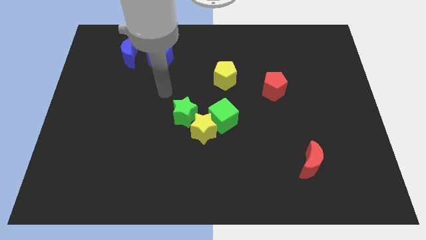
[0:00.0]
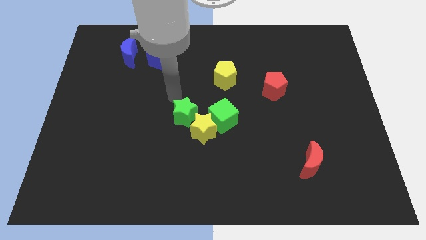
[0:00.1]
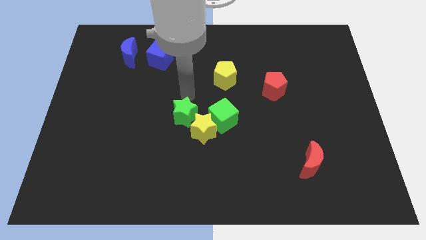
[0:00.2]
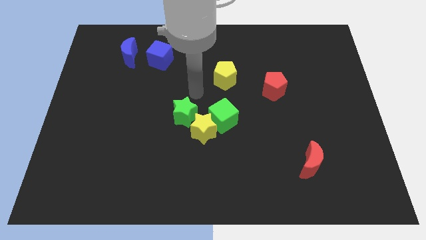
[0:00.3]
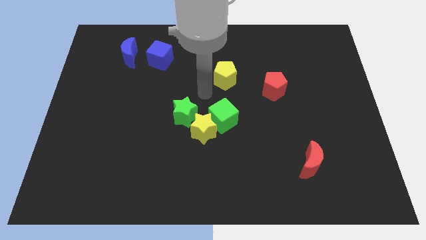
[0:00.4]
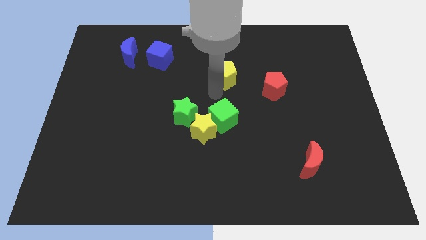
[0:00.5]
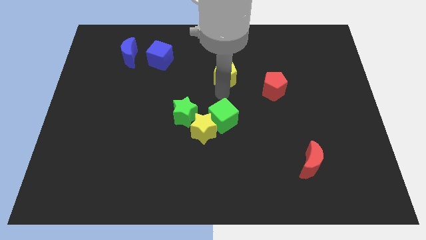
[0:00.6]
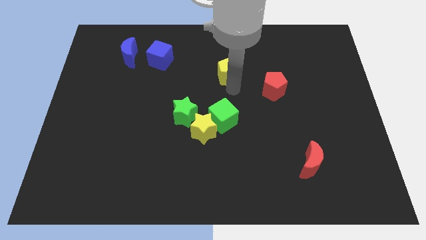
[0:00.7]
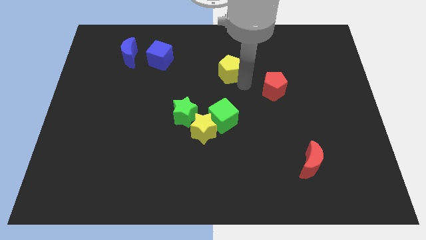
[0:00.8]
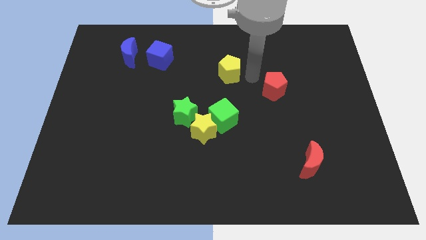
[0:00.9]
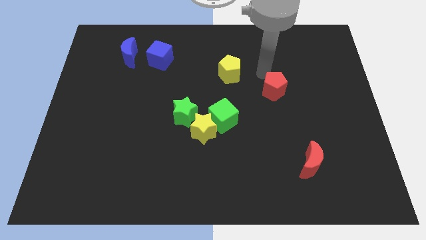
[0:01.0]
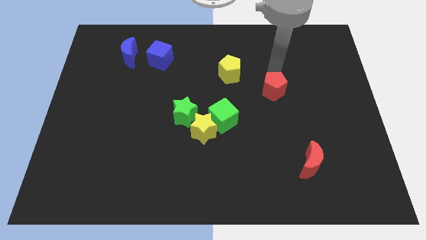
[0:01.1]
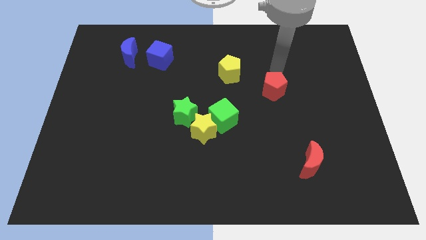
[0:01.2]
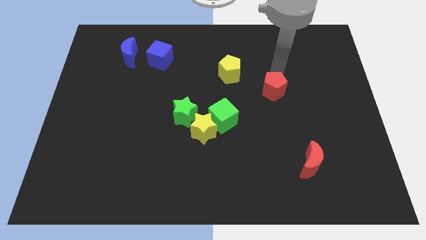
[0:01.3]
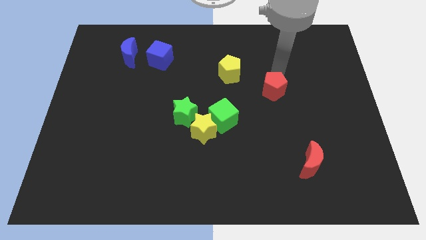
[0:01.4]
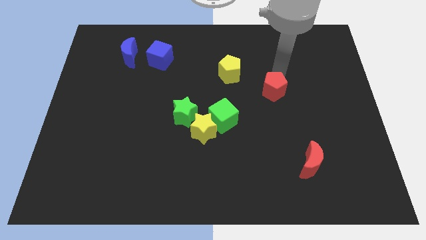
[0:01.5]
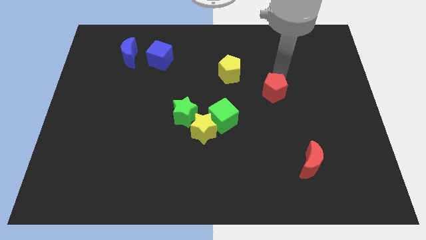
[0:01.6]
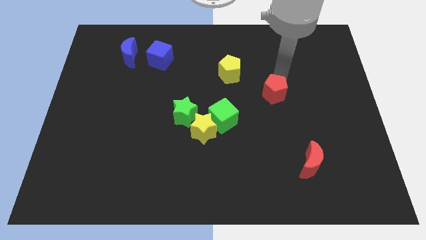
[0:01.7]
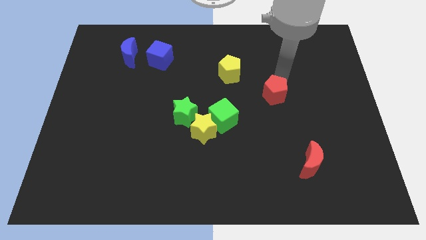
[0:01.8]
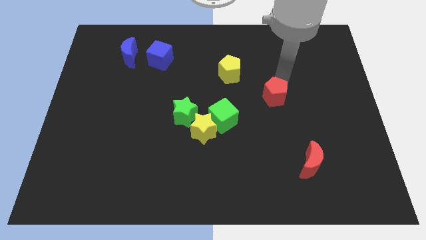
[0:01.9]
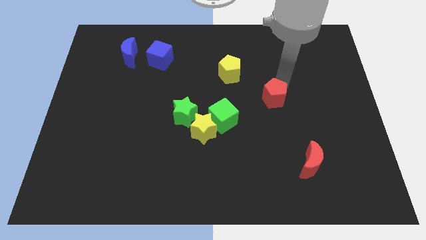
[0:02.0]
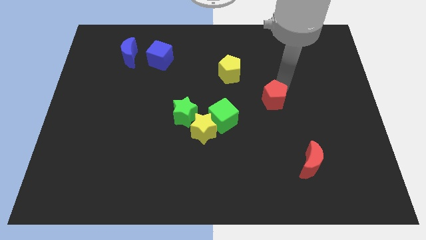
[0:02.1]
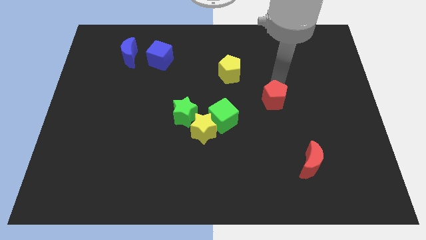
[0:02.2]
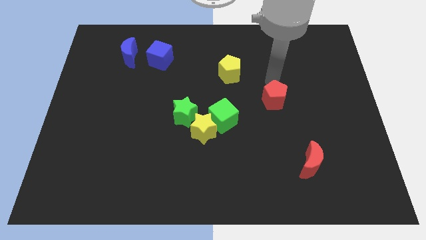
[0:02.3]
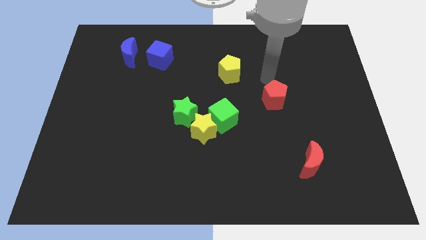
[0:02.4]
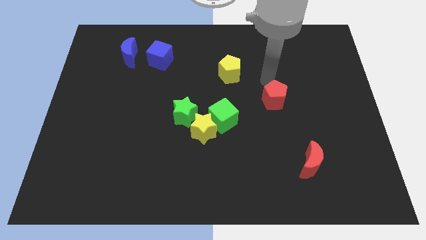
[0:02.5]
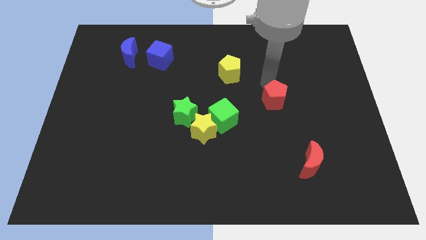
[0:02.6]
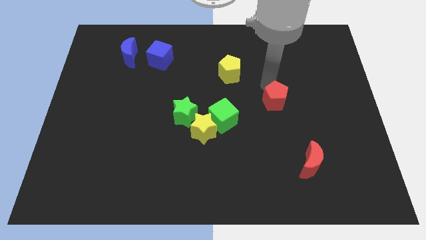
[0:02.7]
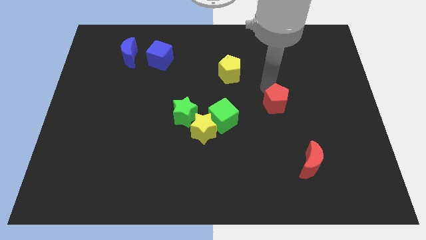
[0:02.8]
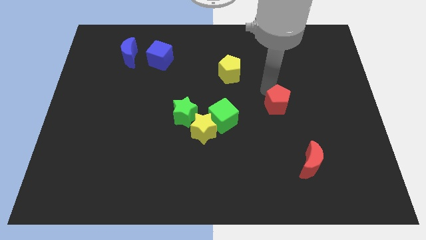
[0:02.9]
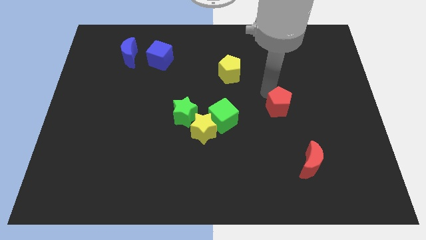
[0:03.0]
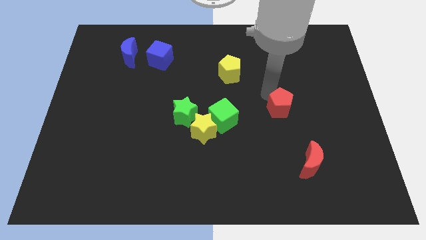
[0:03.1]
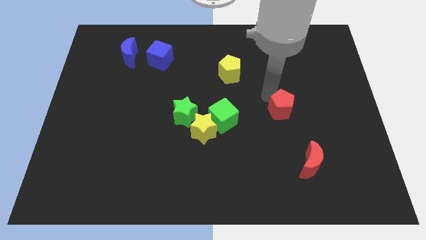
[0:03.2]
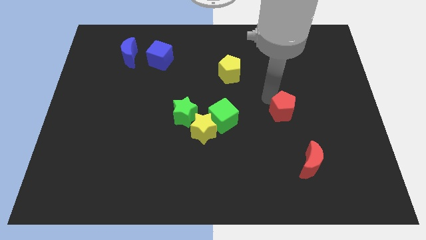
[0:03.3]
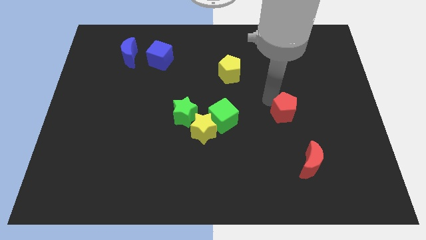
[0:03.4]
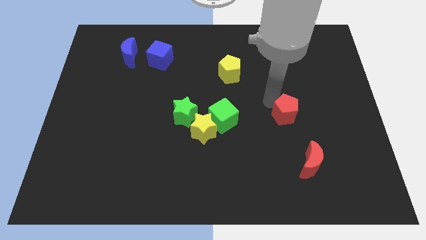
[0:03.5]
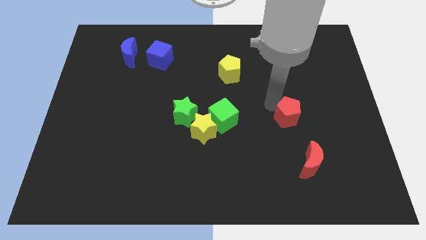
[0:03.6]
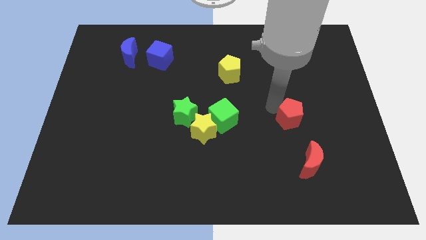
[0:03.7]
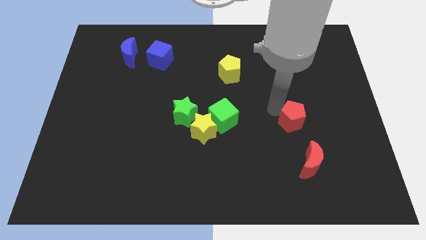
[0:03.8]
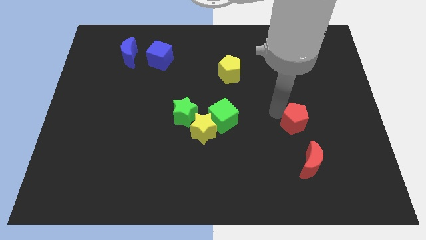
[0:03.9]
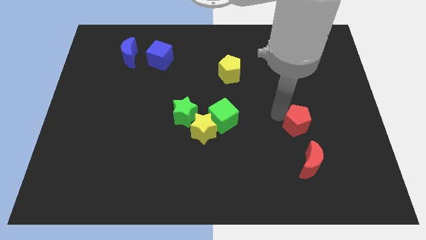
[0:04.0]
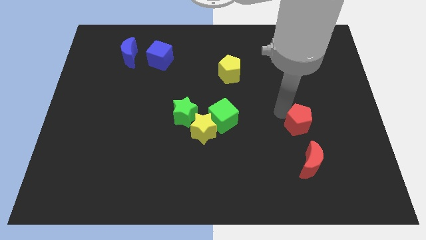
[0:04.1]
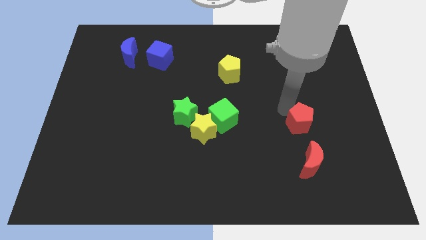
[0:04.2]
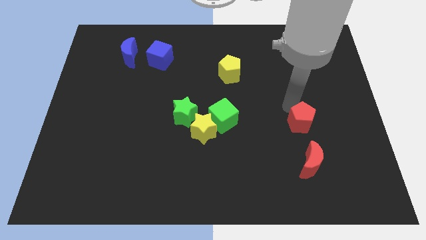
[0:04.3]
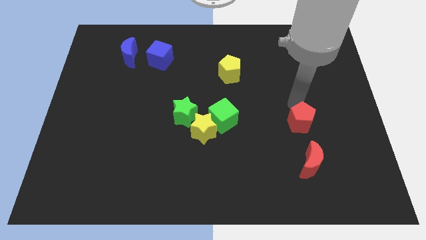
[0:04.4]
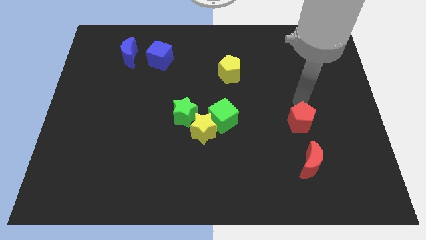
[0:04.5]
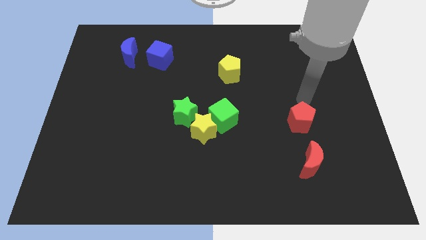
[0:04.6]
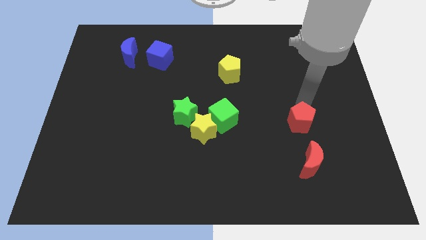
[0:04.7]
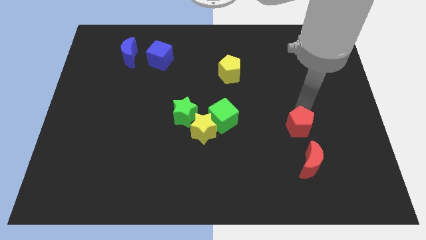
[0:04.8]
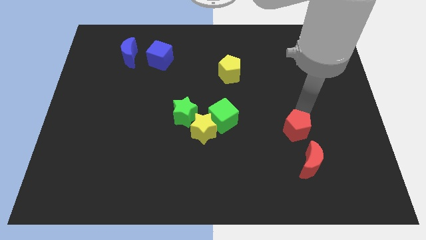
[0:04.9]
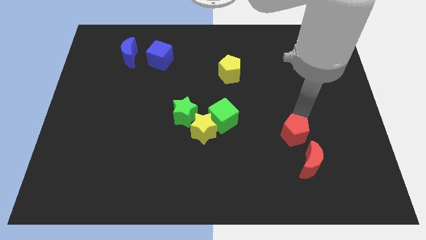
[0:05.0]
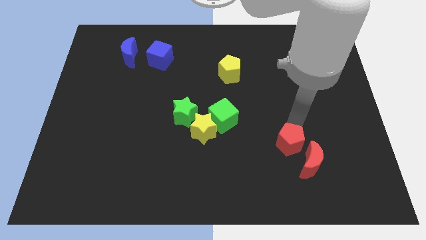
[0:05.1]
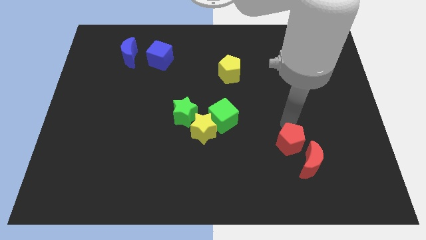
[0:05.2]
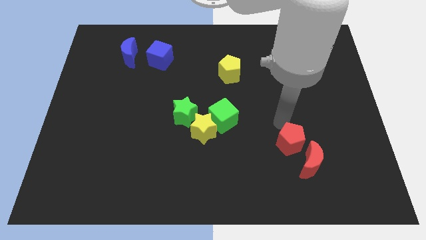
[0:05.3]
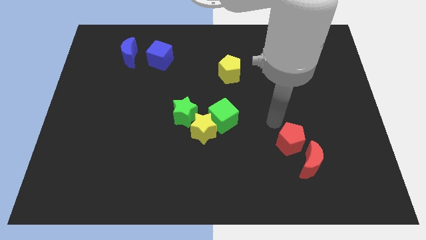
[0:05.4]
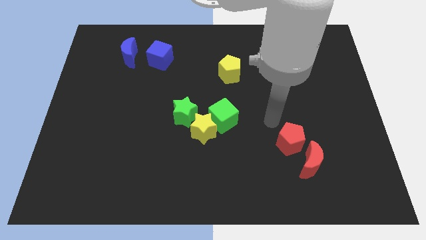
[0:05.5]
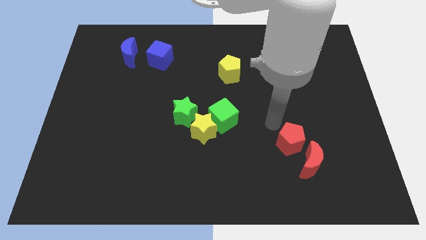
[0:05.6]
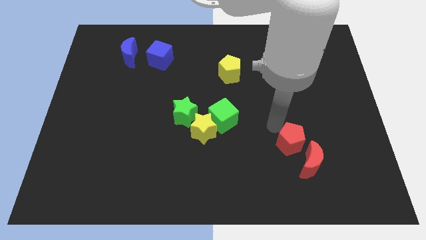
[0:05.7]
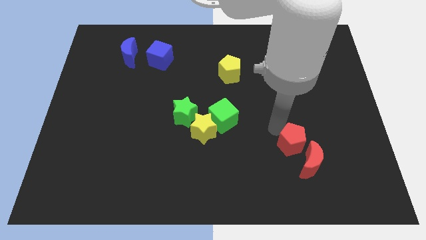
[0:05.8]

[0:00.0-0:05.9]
put the red pentagon next to the red moon

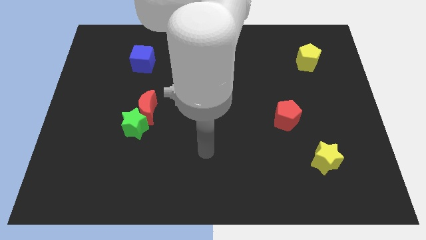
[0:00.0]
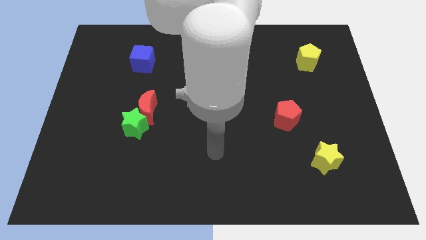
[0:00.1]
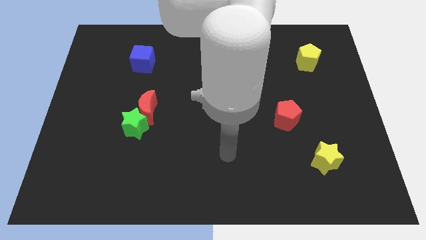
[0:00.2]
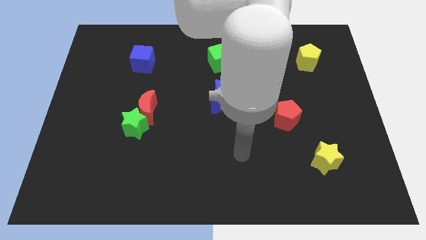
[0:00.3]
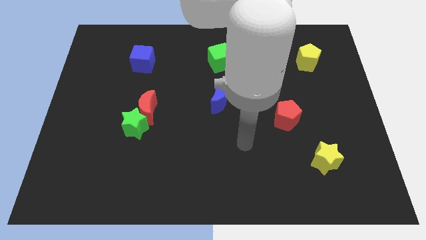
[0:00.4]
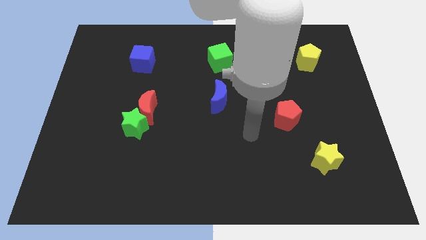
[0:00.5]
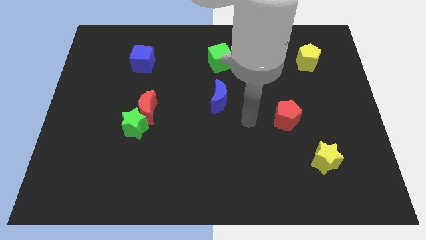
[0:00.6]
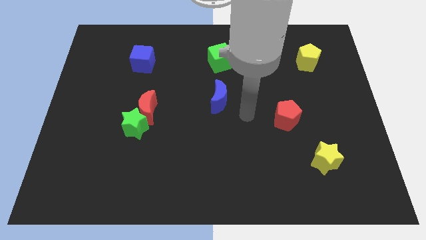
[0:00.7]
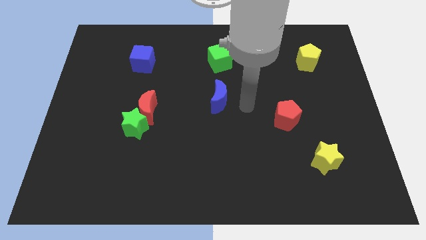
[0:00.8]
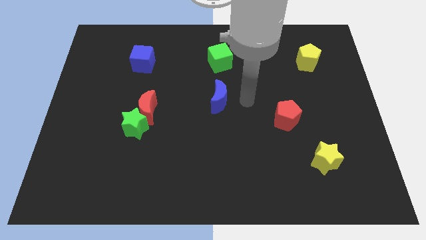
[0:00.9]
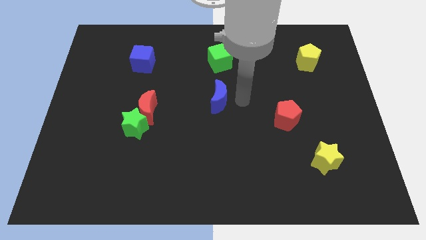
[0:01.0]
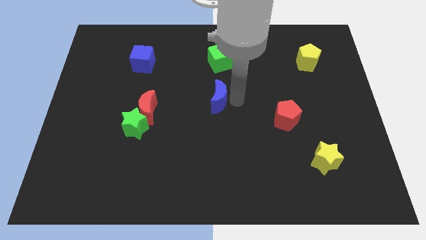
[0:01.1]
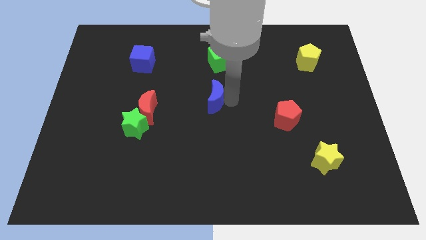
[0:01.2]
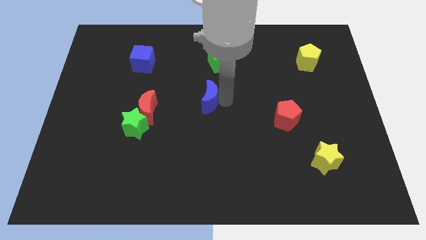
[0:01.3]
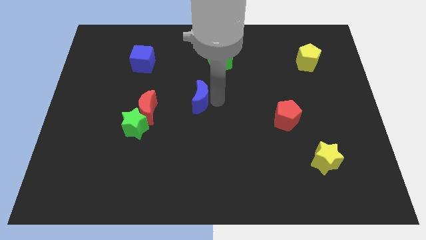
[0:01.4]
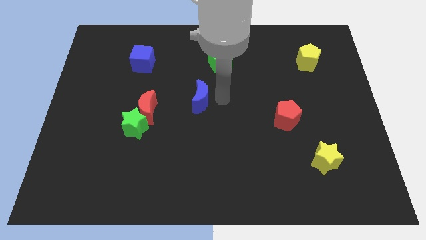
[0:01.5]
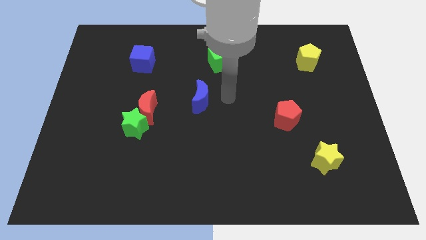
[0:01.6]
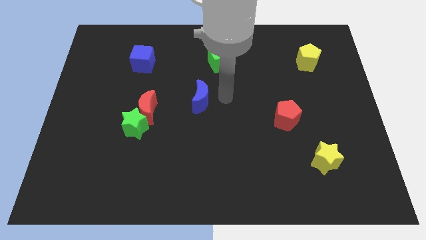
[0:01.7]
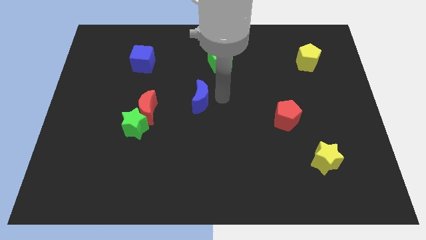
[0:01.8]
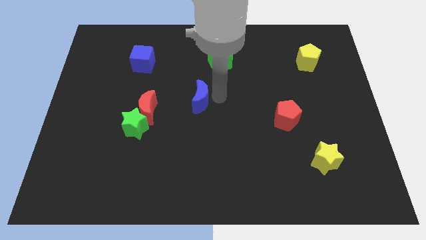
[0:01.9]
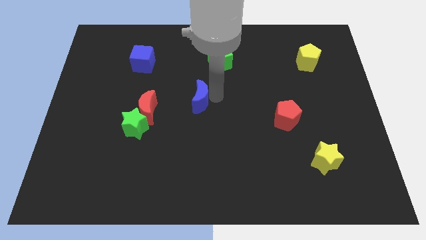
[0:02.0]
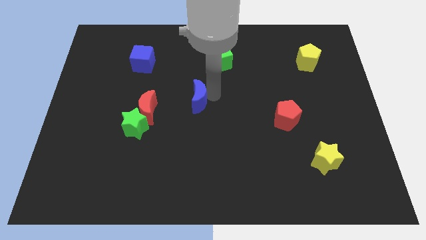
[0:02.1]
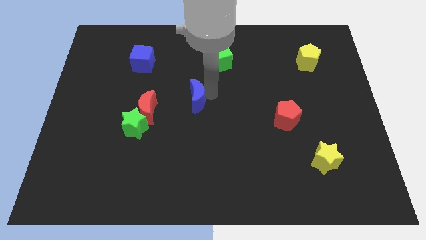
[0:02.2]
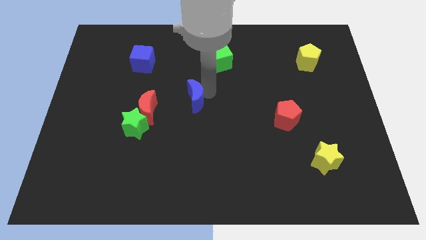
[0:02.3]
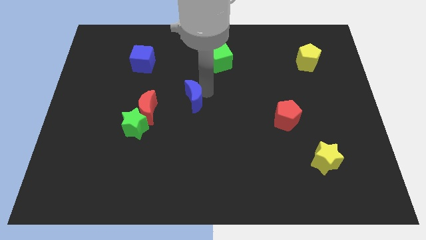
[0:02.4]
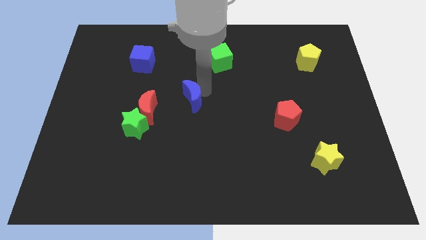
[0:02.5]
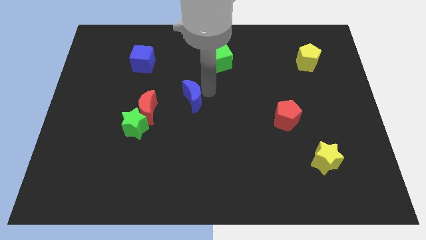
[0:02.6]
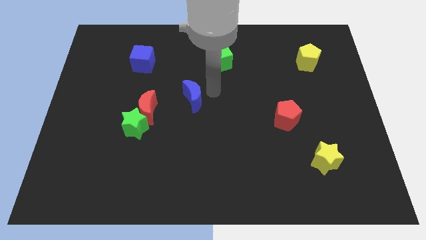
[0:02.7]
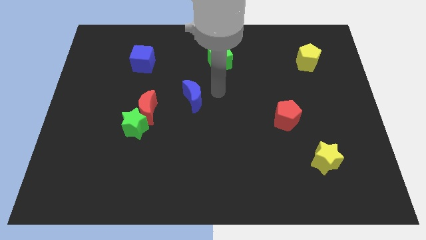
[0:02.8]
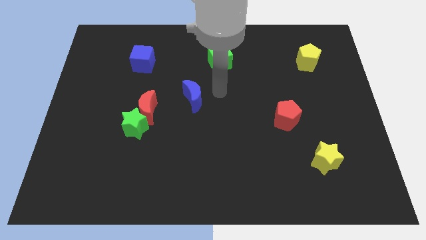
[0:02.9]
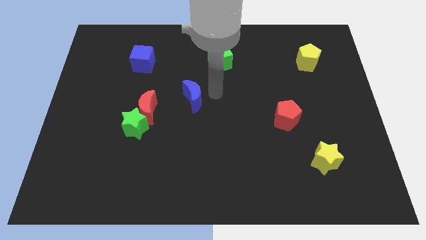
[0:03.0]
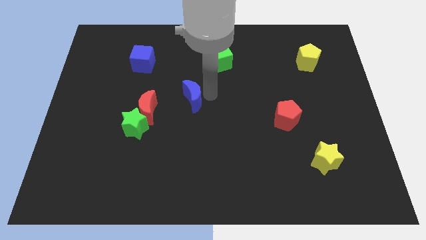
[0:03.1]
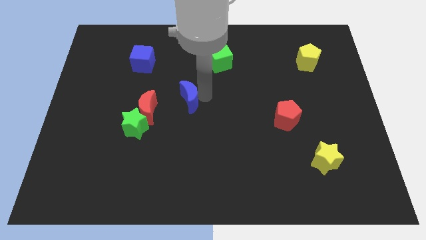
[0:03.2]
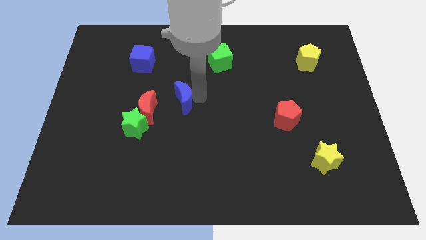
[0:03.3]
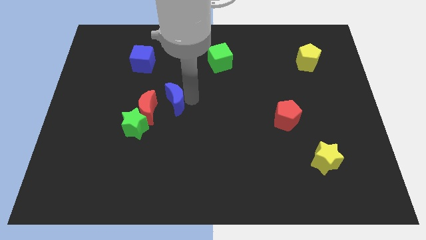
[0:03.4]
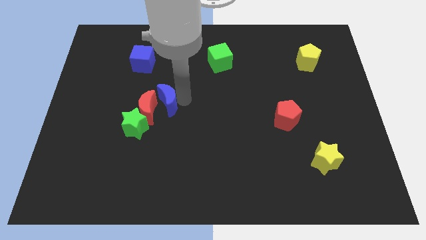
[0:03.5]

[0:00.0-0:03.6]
put the blue moon towards the red moon
